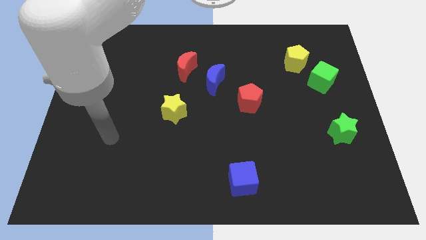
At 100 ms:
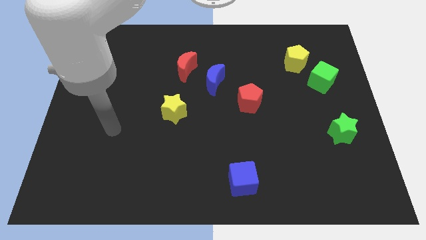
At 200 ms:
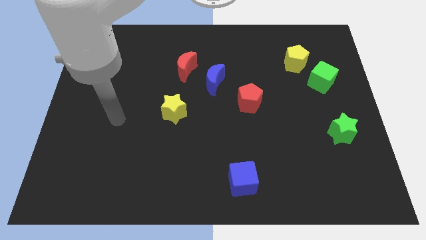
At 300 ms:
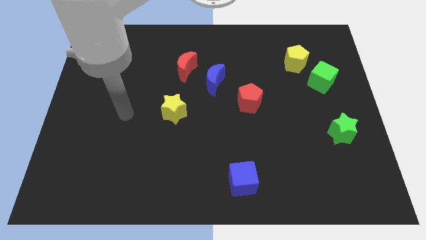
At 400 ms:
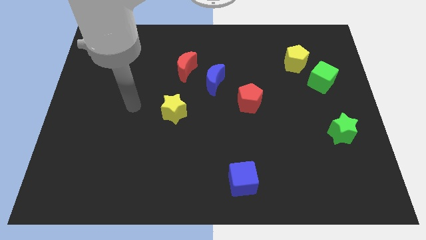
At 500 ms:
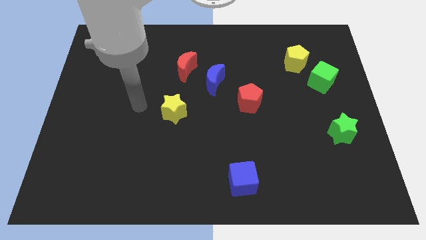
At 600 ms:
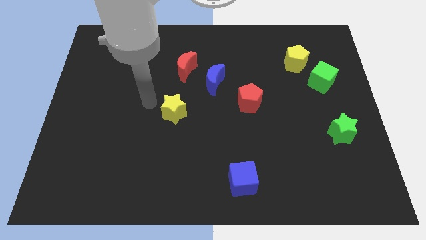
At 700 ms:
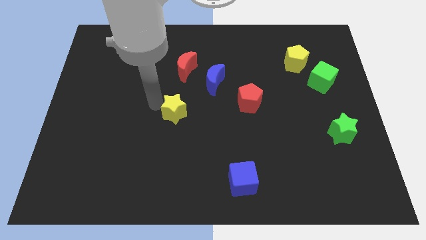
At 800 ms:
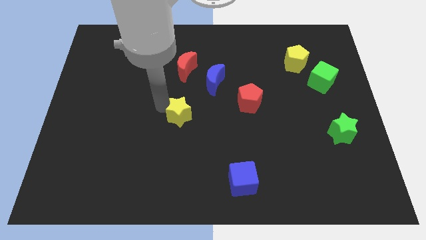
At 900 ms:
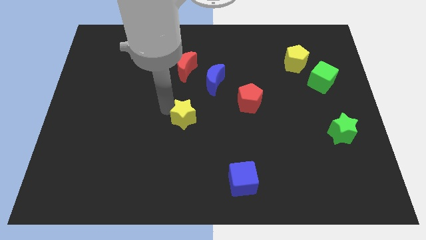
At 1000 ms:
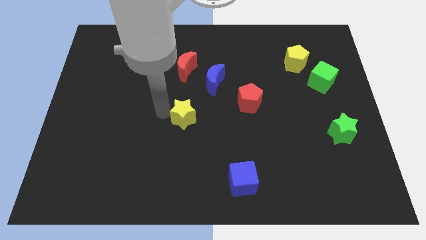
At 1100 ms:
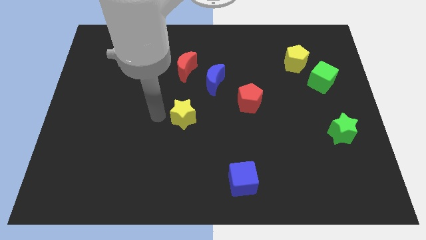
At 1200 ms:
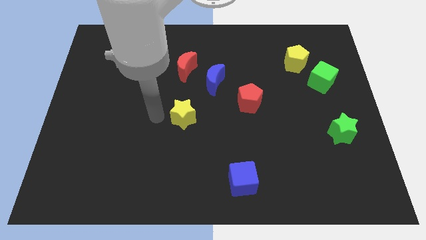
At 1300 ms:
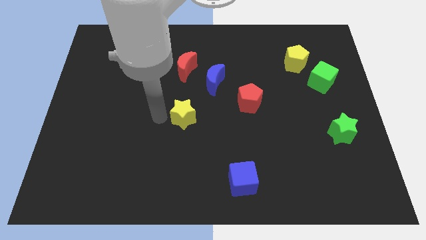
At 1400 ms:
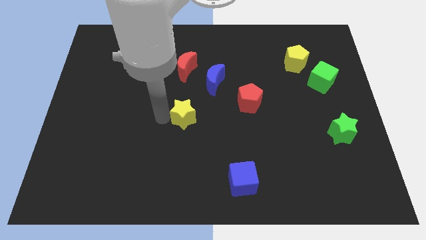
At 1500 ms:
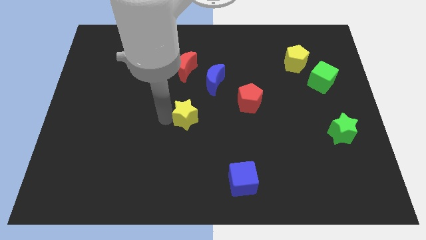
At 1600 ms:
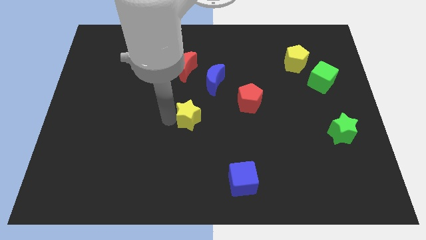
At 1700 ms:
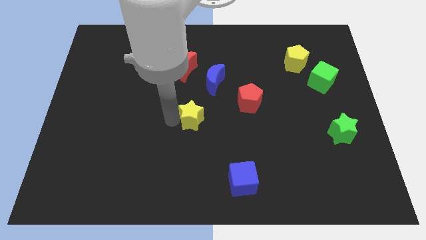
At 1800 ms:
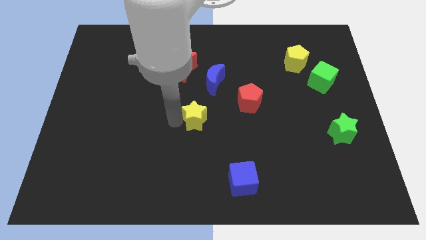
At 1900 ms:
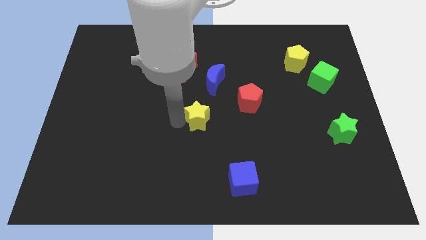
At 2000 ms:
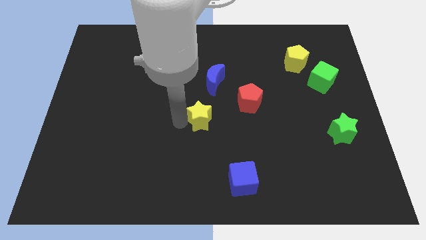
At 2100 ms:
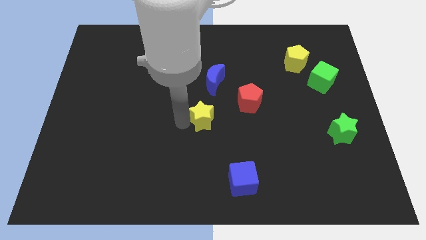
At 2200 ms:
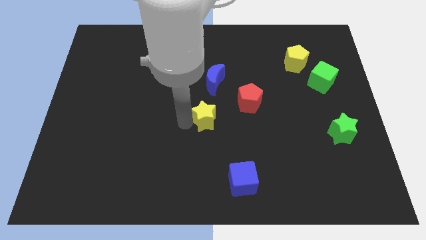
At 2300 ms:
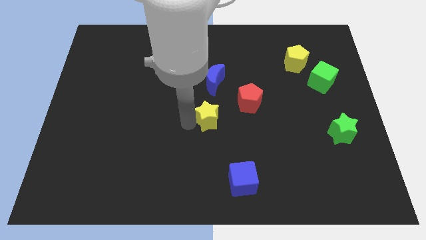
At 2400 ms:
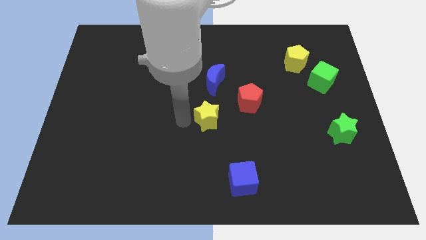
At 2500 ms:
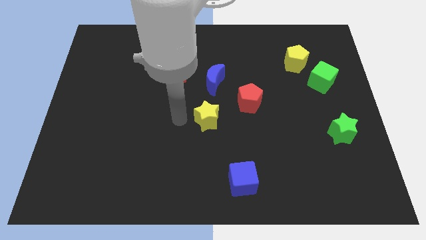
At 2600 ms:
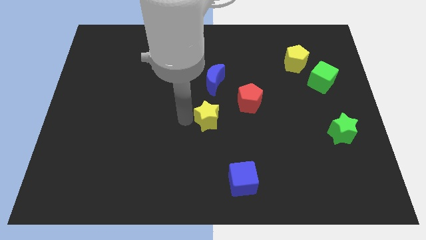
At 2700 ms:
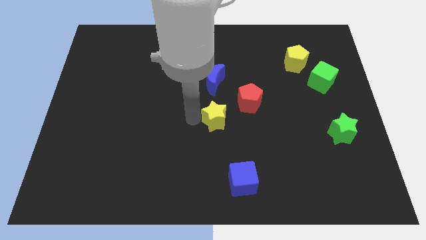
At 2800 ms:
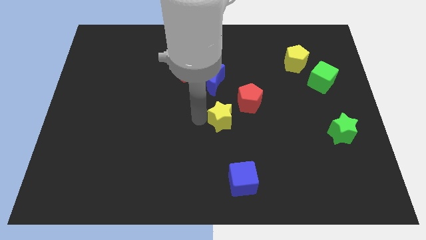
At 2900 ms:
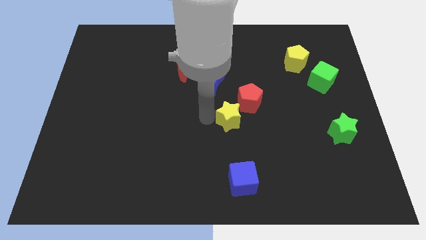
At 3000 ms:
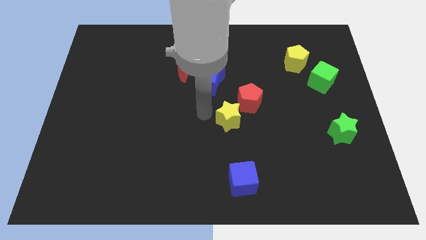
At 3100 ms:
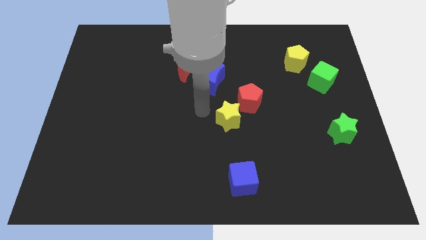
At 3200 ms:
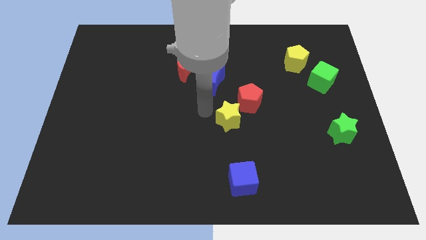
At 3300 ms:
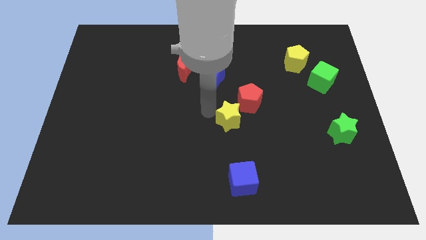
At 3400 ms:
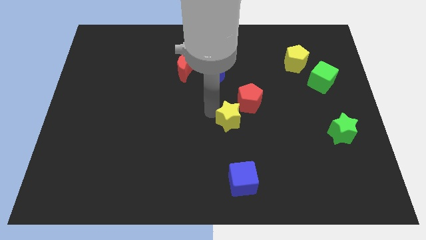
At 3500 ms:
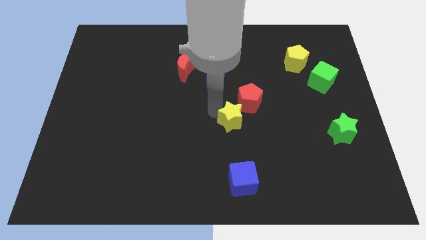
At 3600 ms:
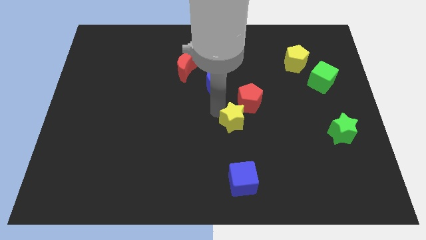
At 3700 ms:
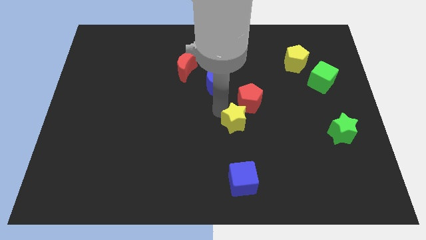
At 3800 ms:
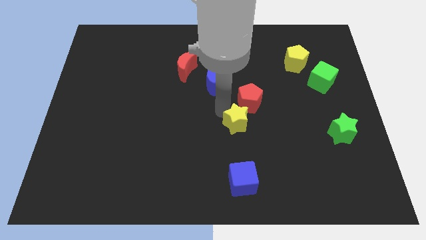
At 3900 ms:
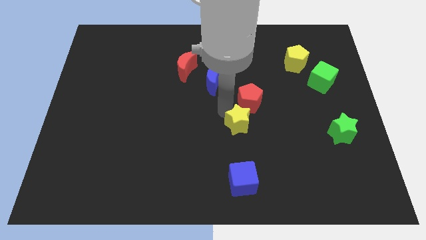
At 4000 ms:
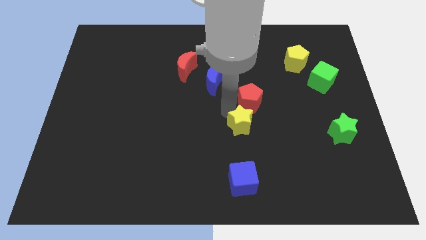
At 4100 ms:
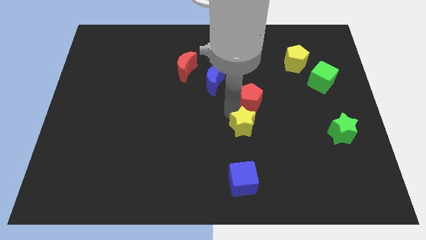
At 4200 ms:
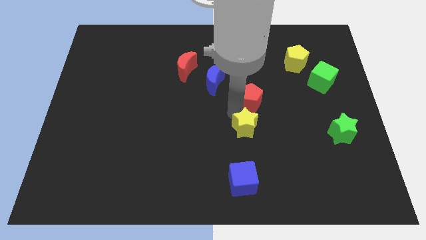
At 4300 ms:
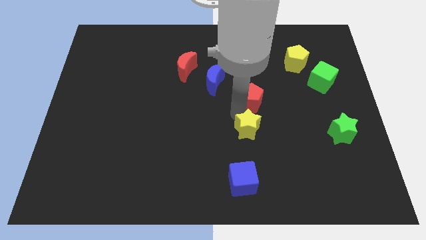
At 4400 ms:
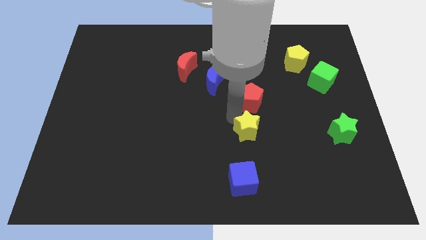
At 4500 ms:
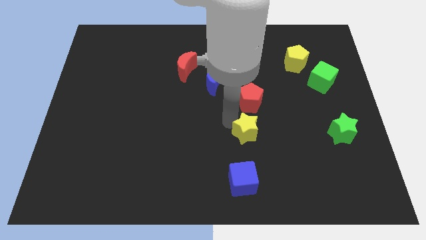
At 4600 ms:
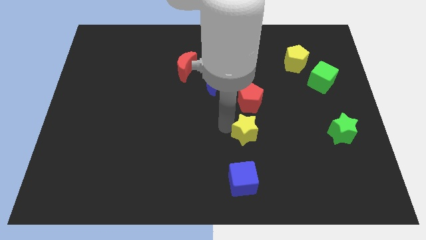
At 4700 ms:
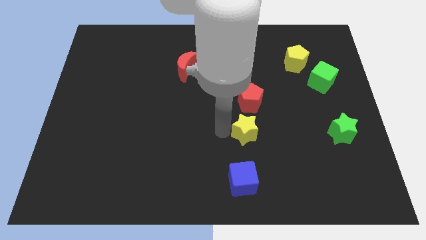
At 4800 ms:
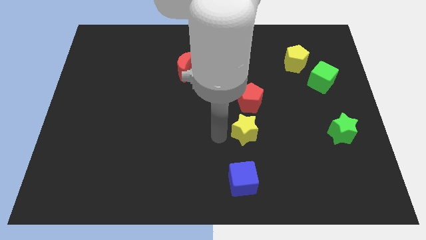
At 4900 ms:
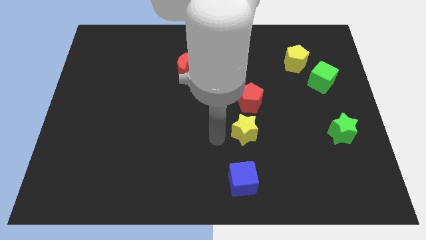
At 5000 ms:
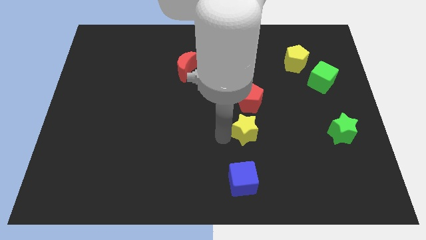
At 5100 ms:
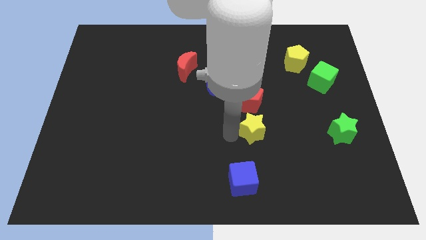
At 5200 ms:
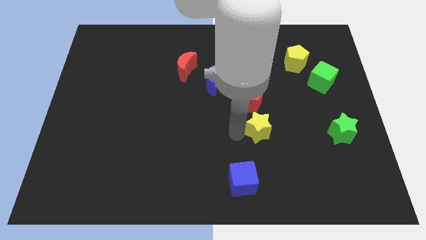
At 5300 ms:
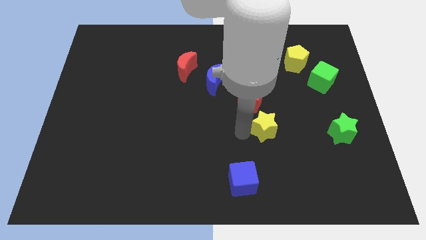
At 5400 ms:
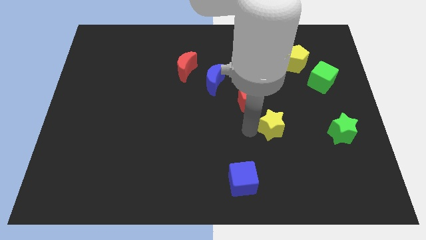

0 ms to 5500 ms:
put the yellow star left of the green star

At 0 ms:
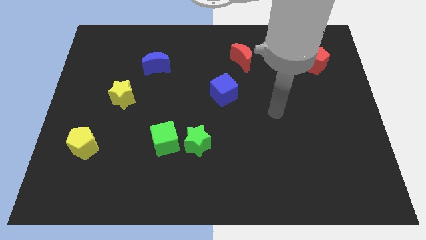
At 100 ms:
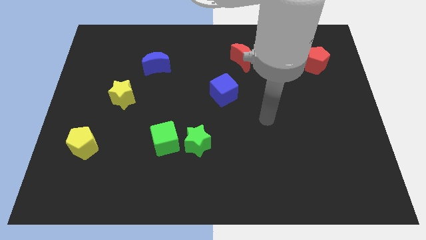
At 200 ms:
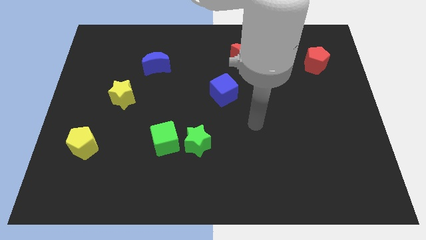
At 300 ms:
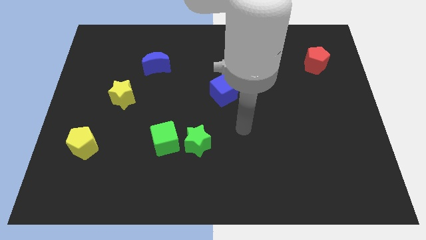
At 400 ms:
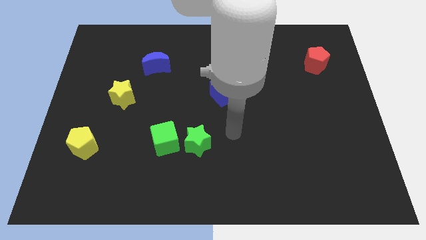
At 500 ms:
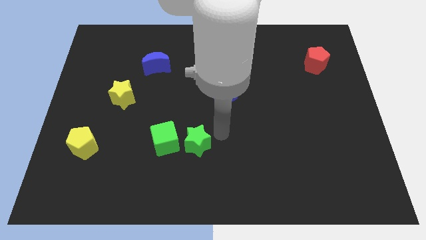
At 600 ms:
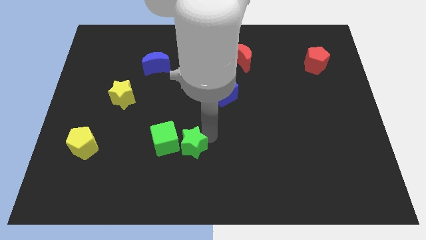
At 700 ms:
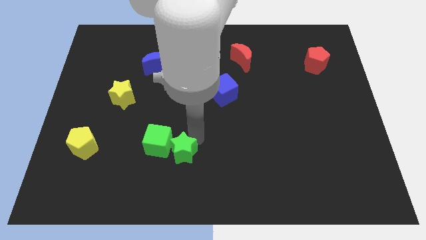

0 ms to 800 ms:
slide the green cube right of the yellow pentagon
